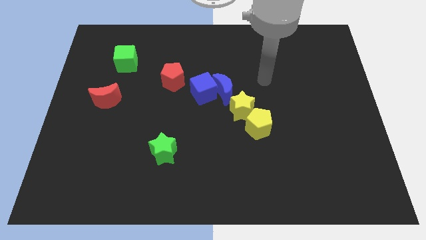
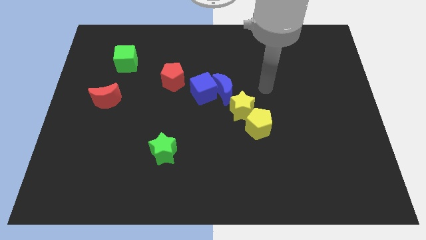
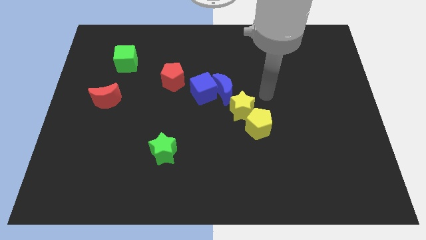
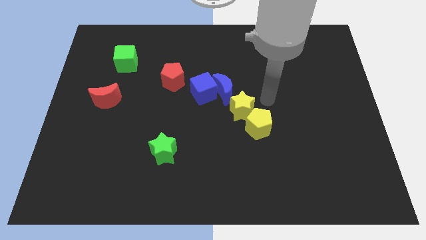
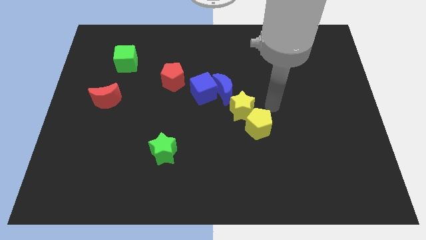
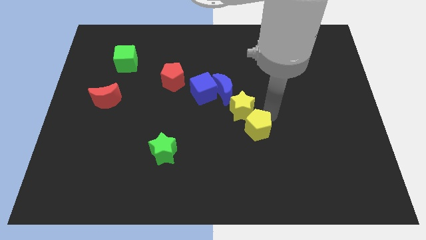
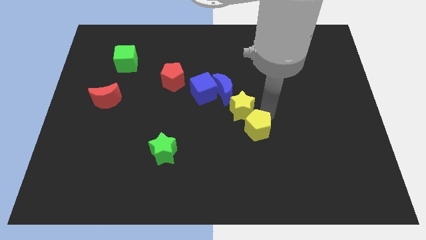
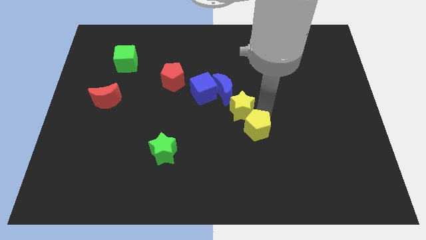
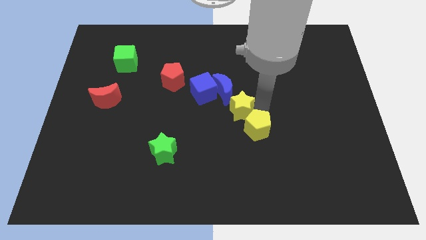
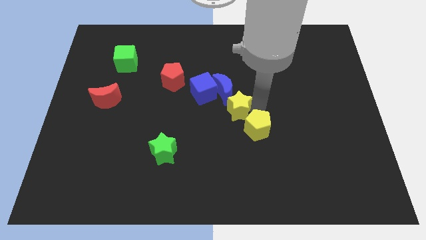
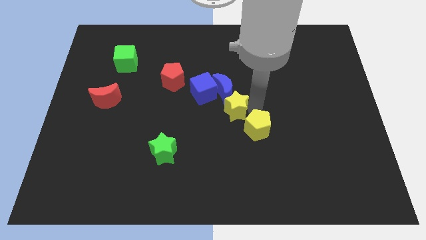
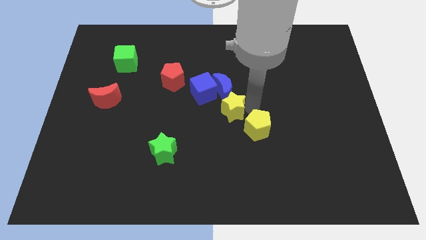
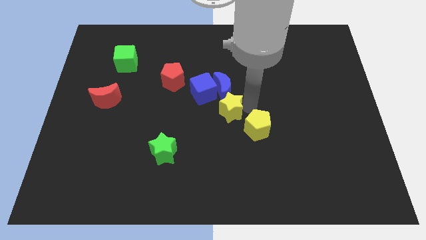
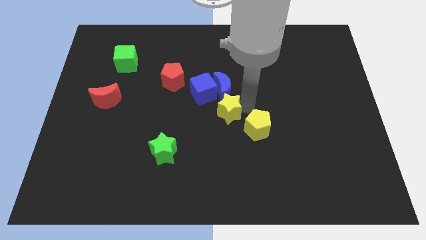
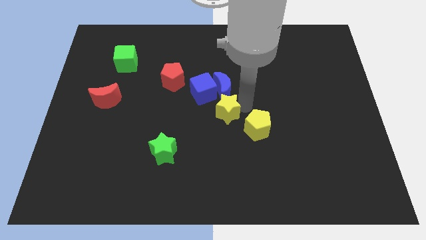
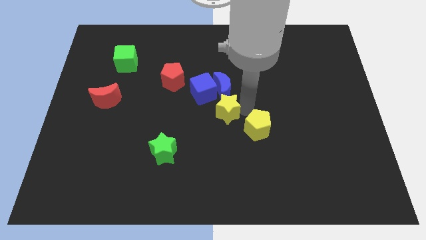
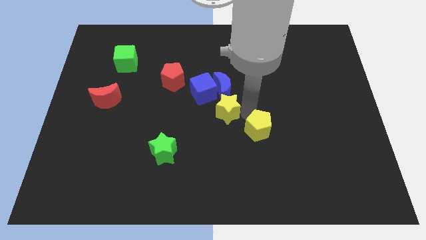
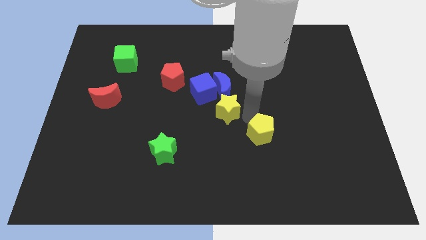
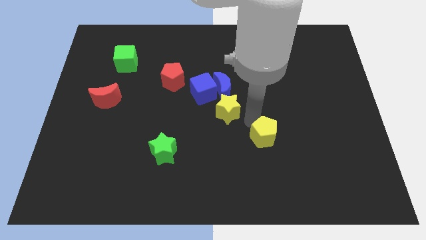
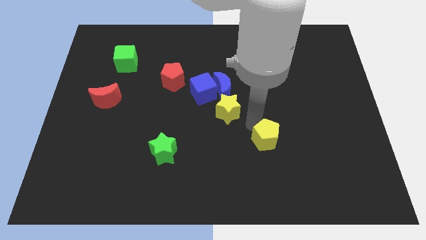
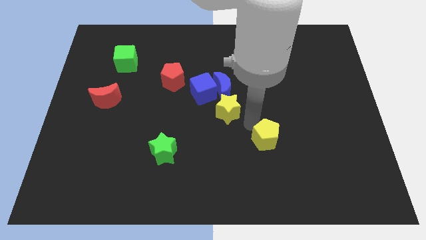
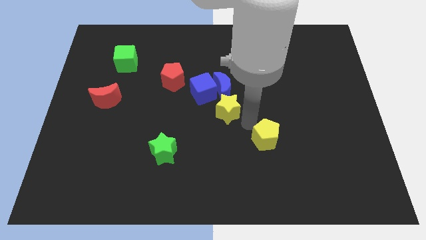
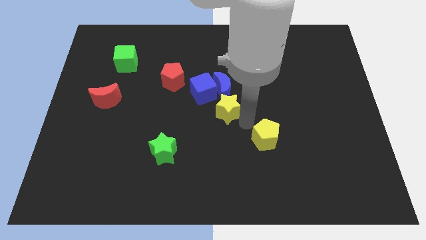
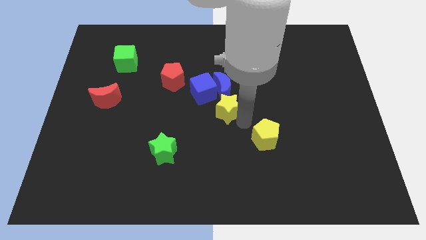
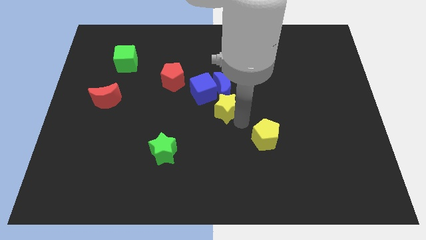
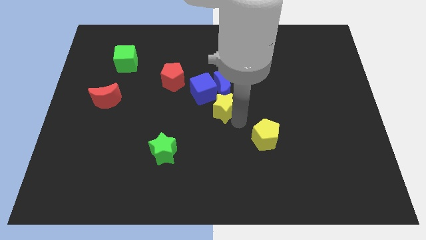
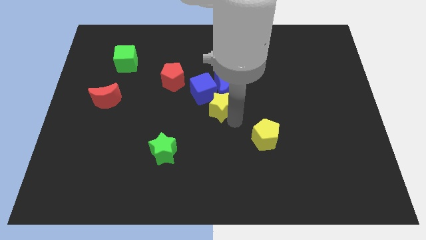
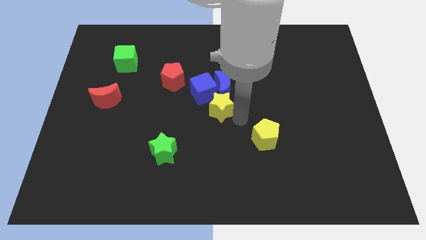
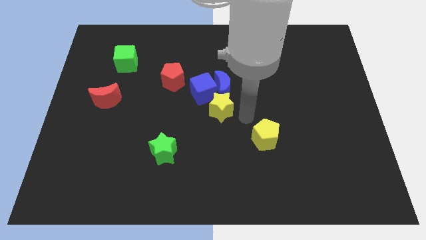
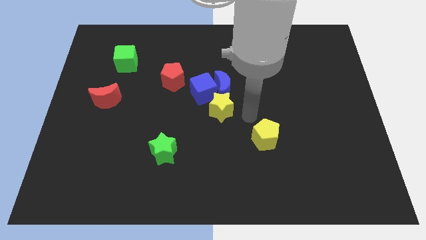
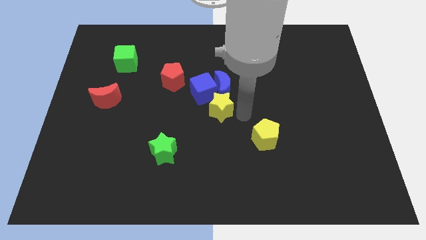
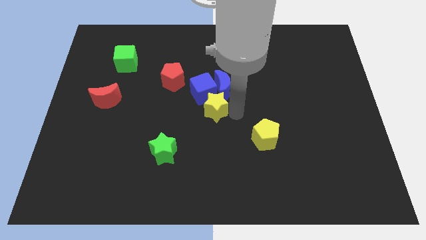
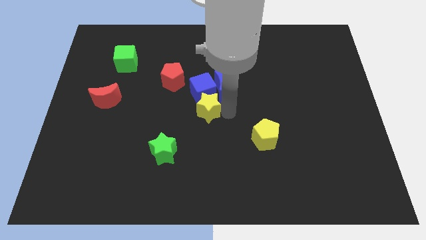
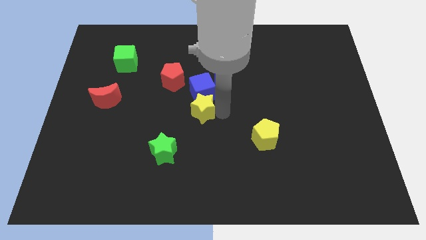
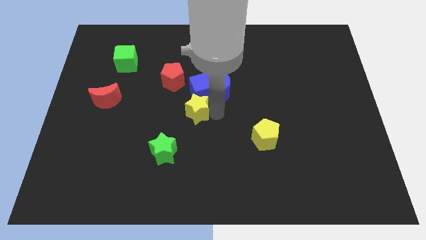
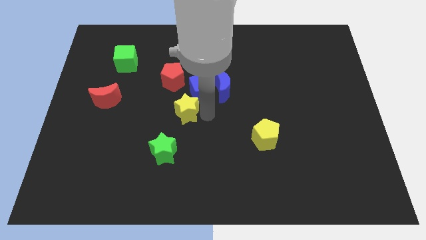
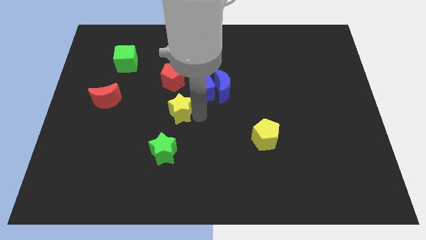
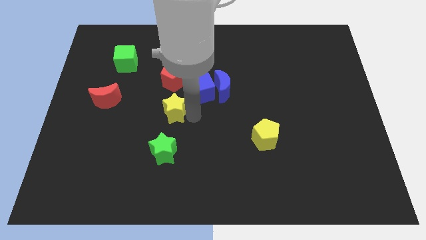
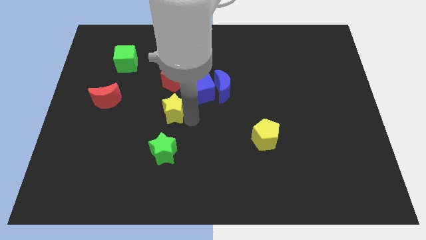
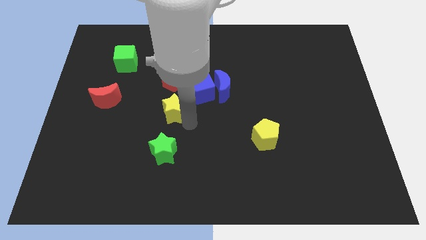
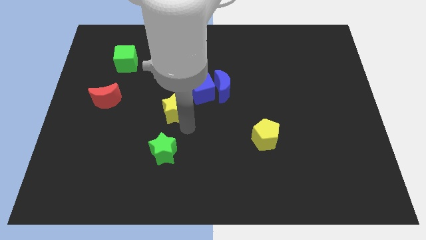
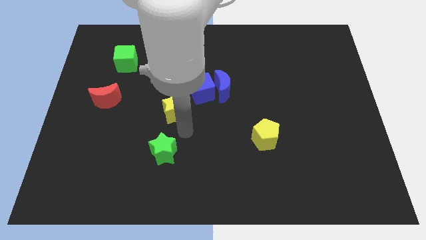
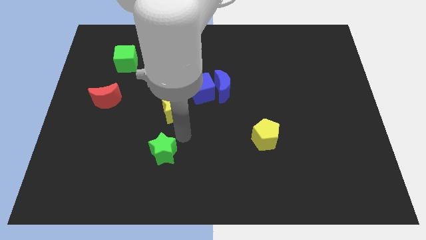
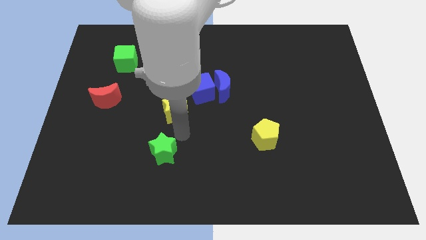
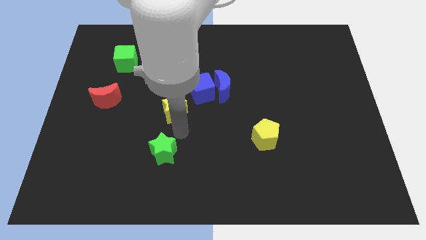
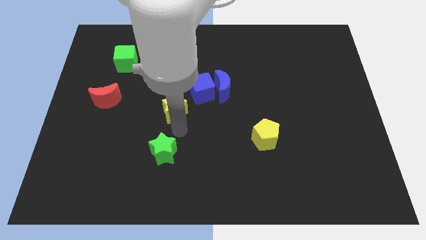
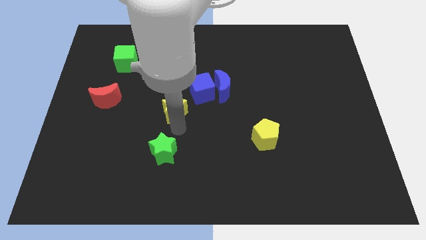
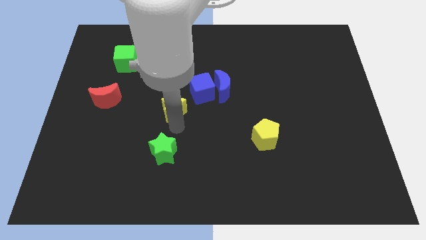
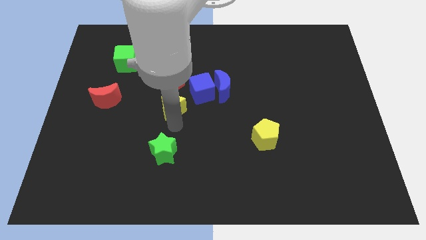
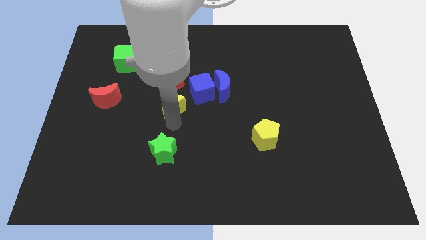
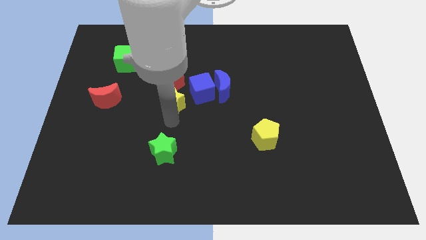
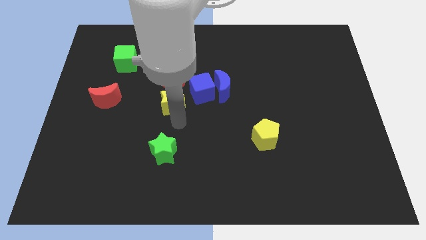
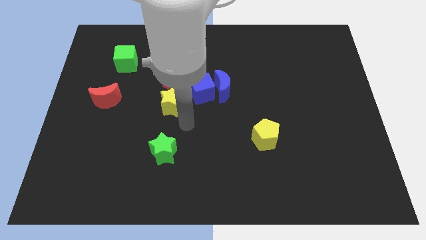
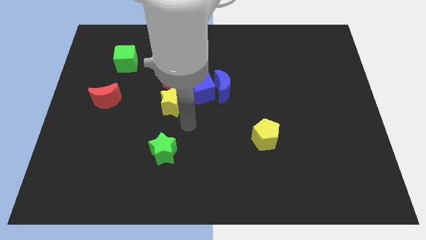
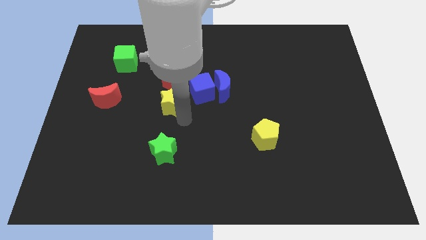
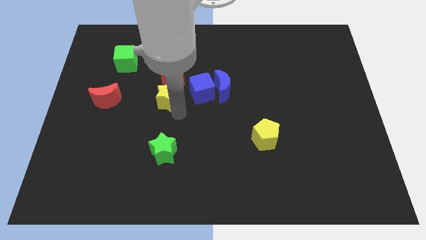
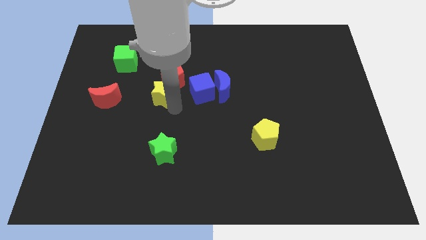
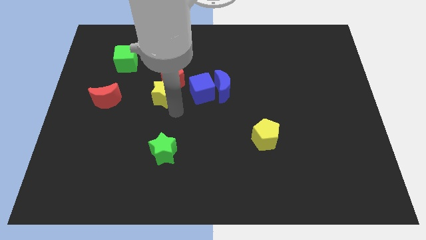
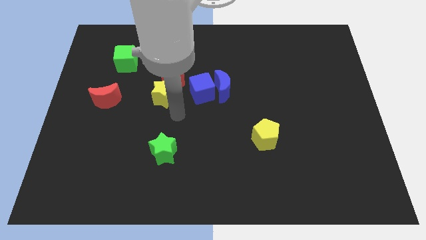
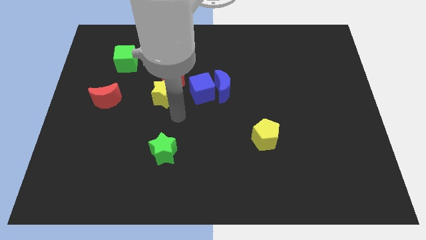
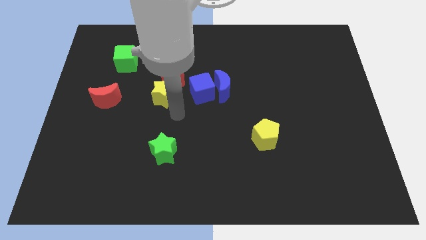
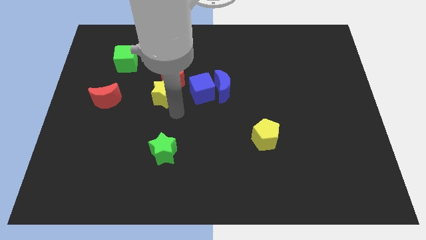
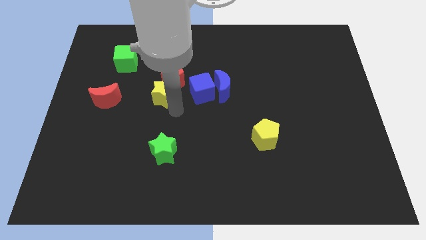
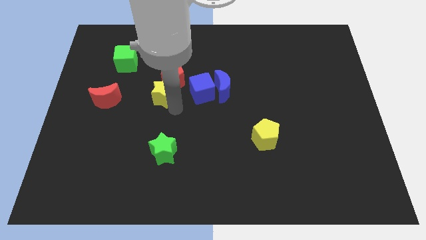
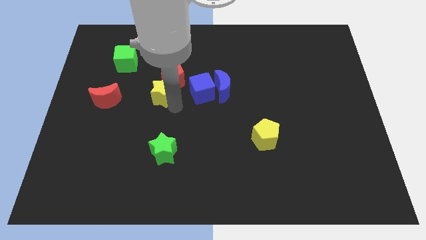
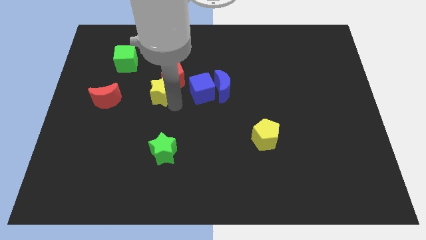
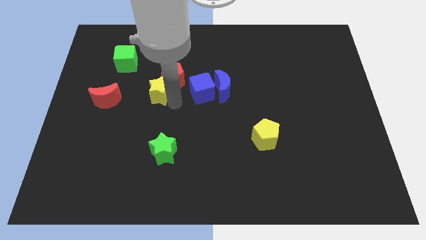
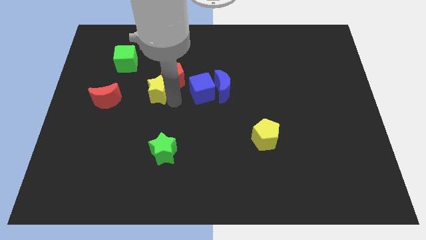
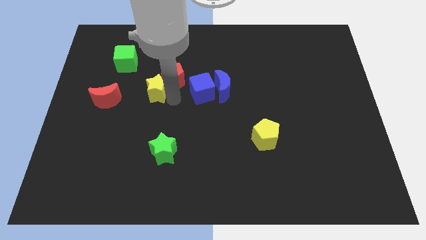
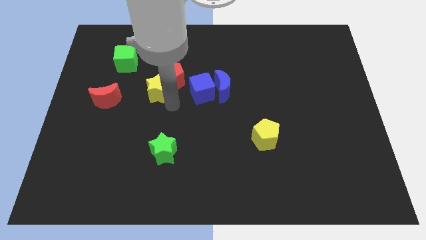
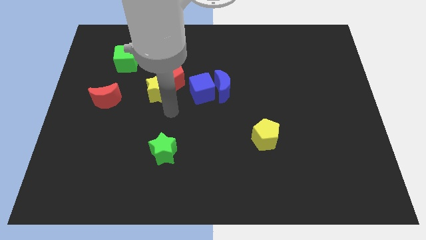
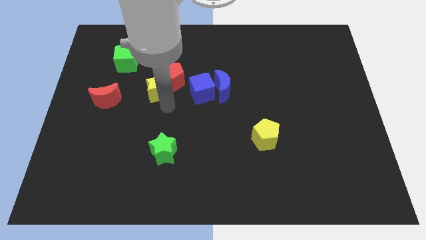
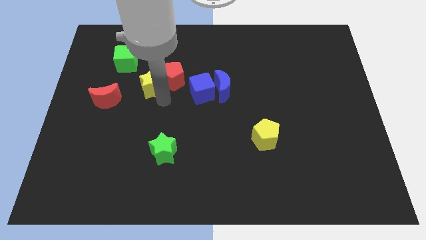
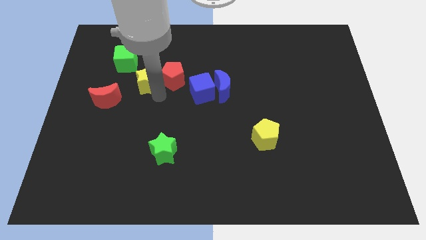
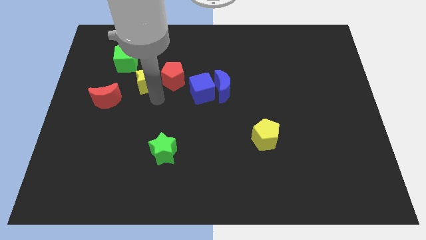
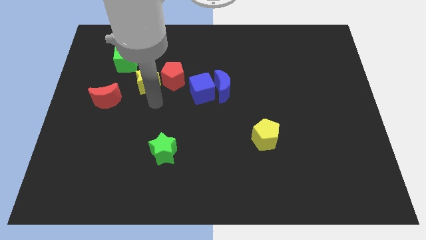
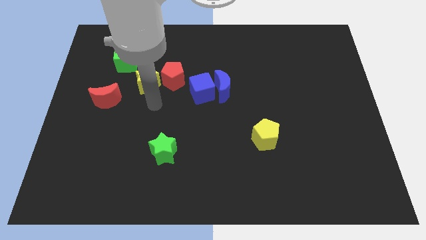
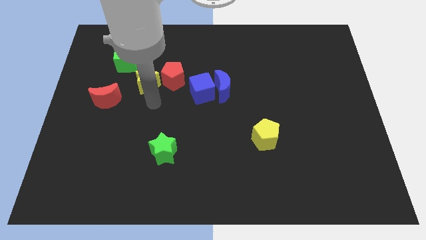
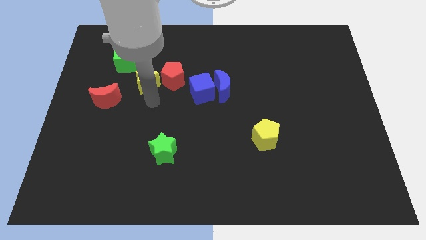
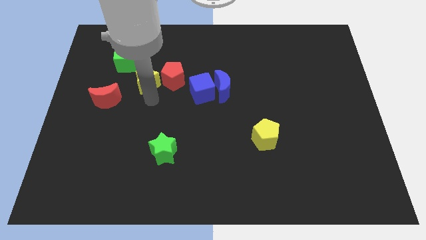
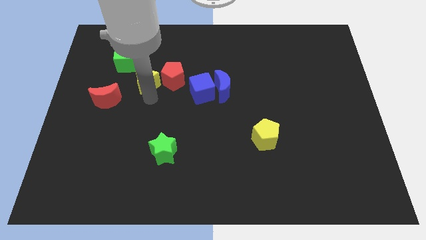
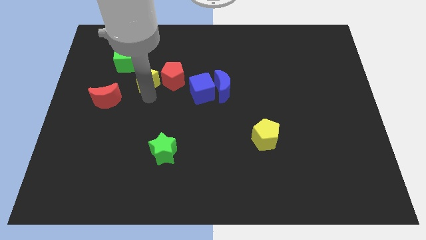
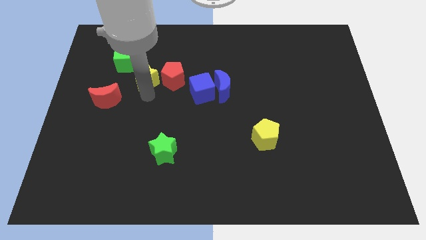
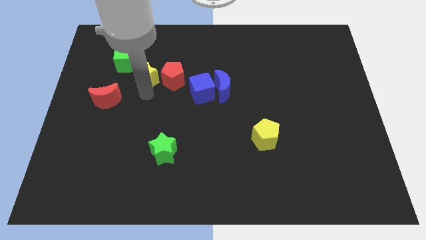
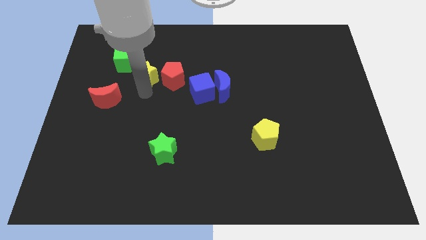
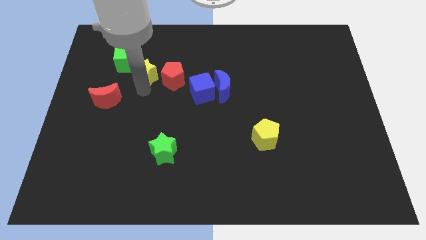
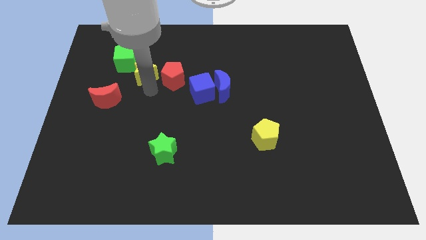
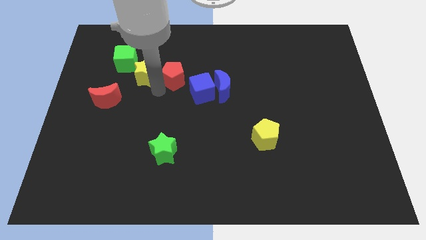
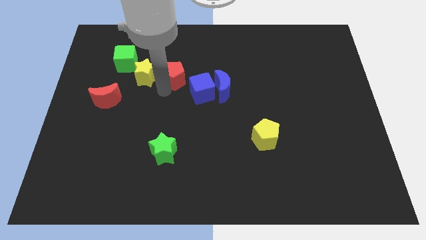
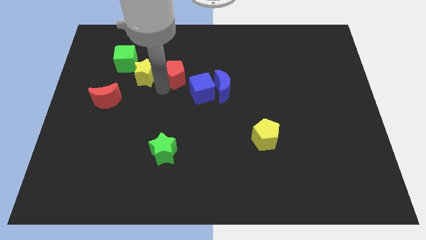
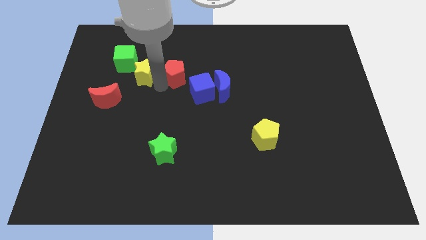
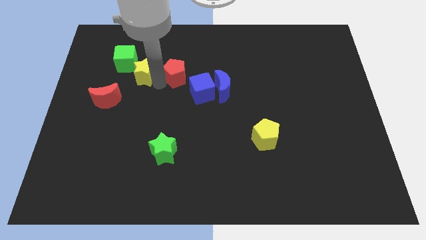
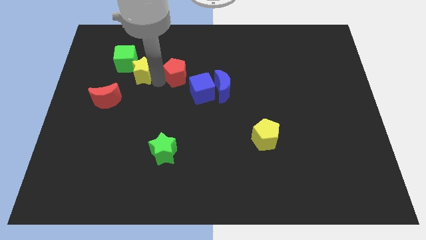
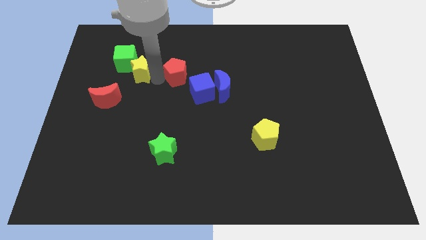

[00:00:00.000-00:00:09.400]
push the yellow star next to the green cube
